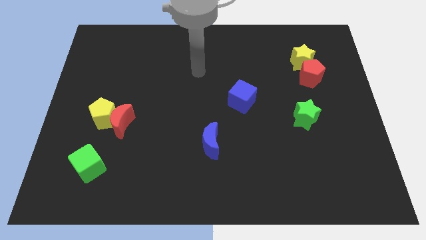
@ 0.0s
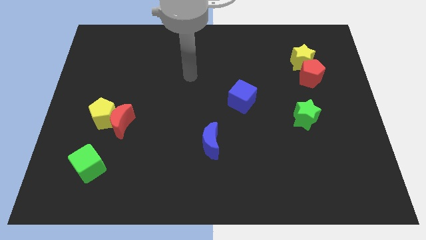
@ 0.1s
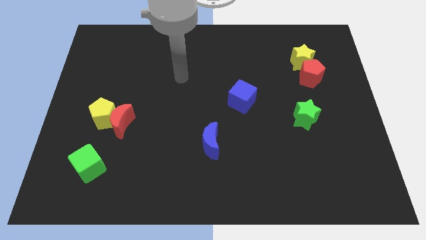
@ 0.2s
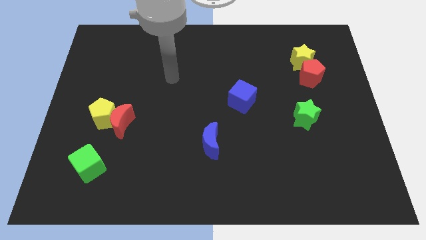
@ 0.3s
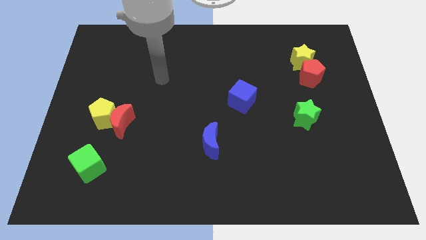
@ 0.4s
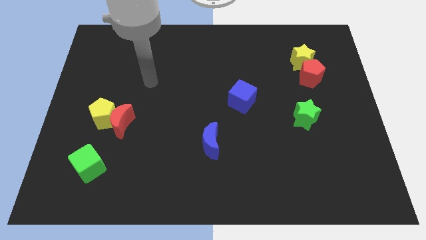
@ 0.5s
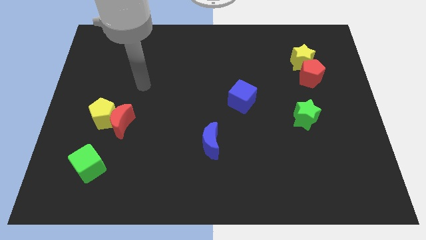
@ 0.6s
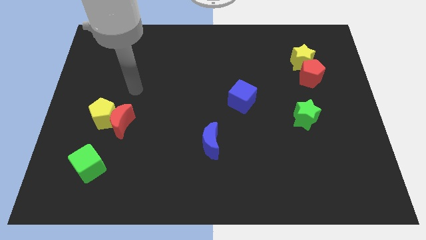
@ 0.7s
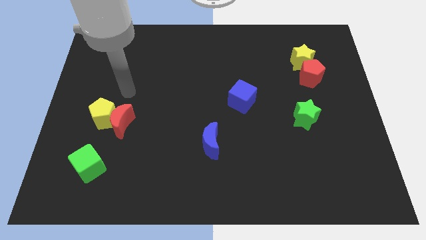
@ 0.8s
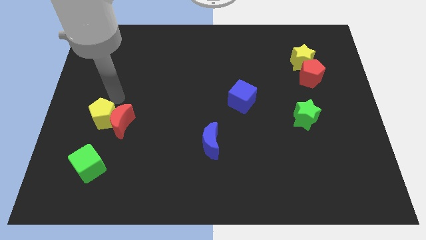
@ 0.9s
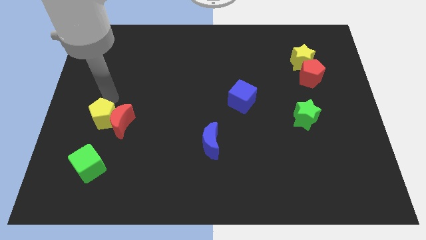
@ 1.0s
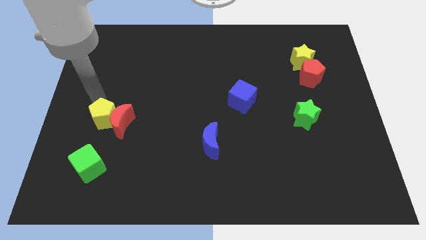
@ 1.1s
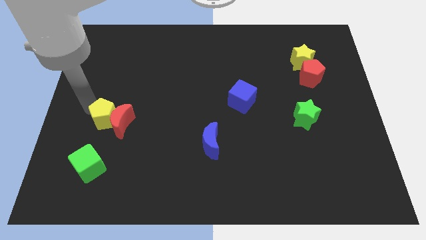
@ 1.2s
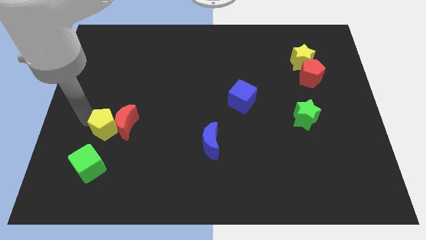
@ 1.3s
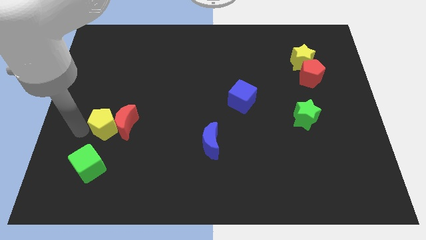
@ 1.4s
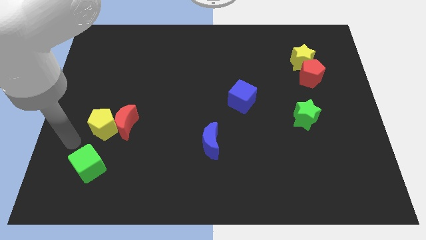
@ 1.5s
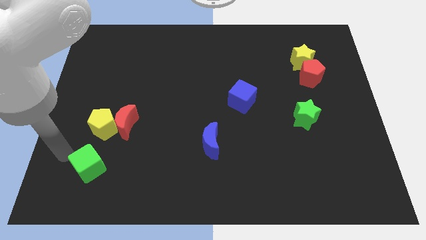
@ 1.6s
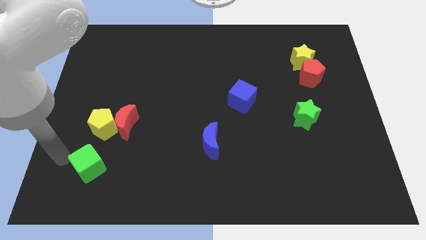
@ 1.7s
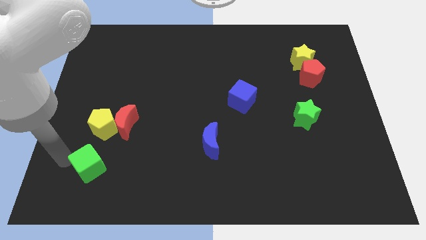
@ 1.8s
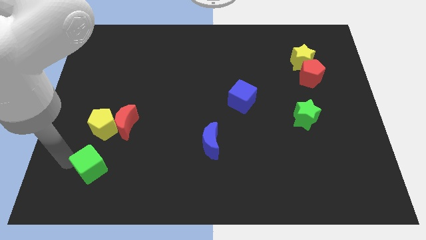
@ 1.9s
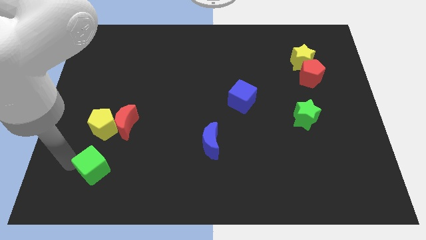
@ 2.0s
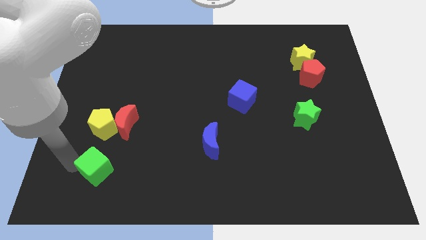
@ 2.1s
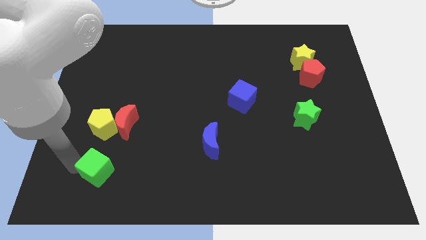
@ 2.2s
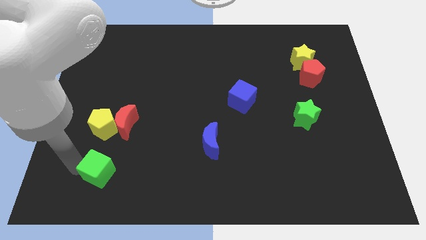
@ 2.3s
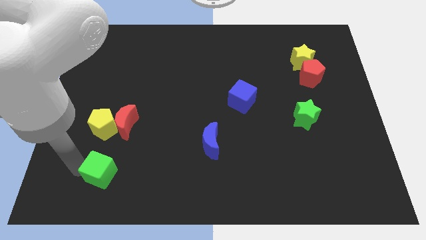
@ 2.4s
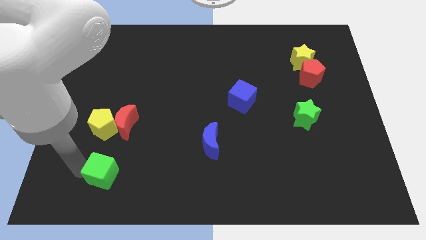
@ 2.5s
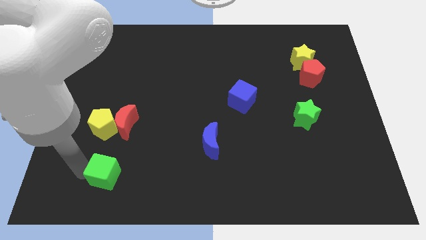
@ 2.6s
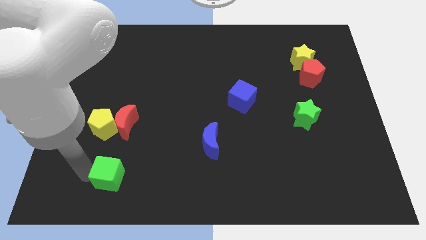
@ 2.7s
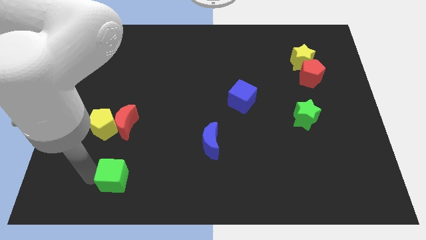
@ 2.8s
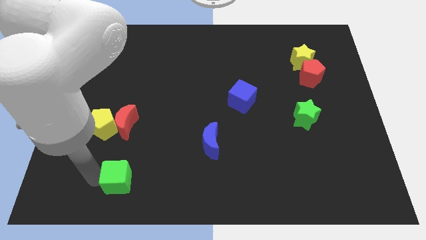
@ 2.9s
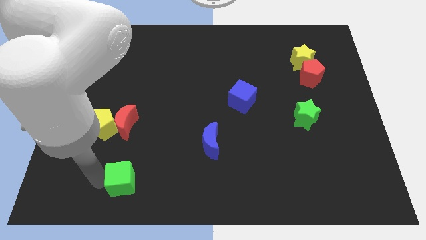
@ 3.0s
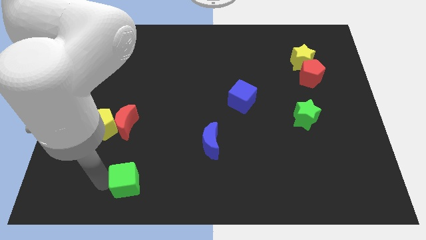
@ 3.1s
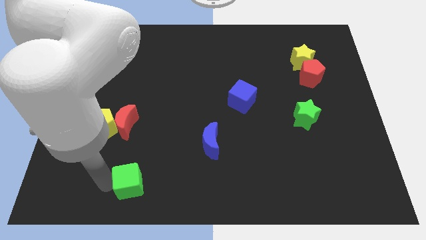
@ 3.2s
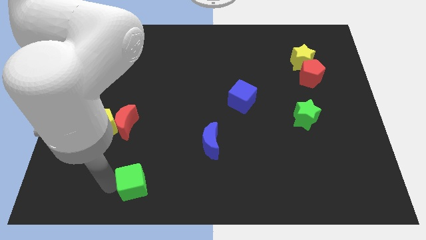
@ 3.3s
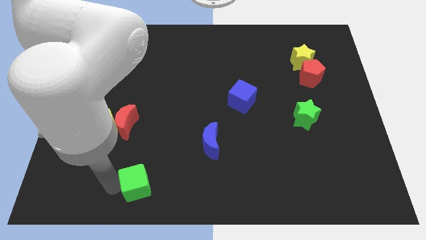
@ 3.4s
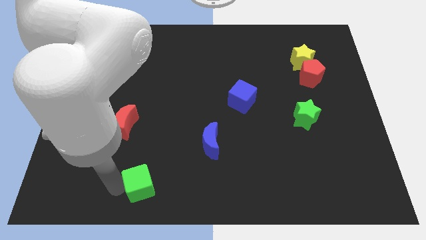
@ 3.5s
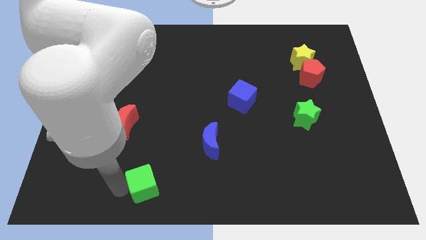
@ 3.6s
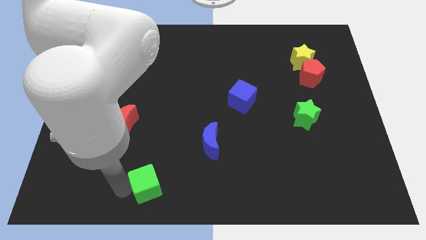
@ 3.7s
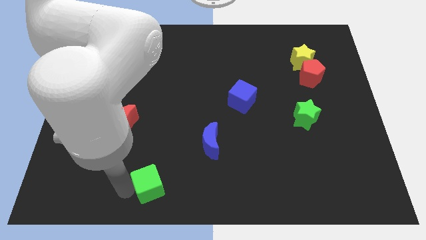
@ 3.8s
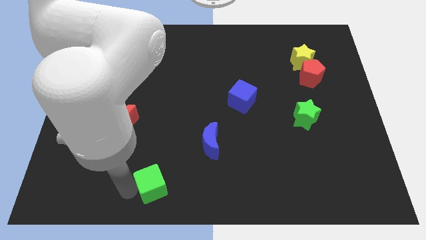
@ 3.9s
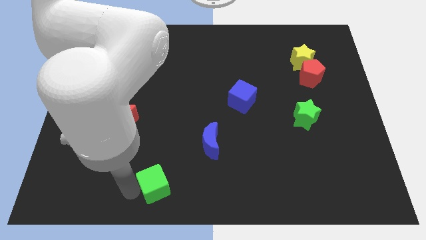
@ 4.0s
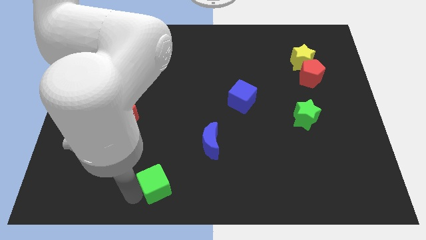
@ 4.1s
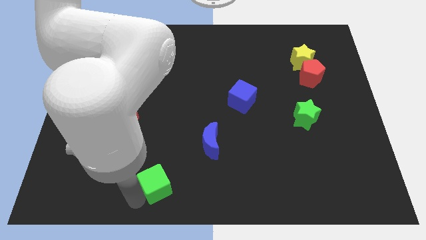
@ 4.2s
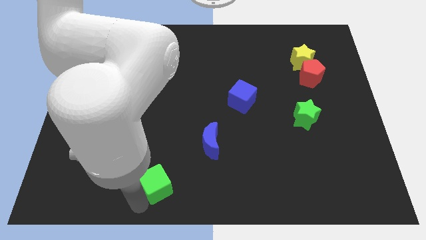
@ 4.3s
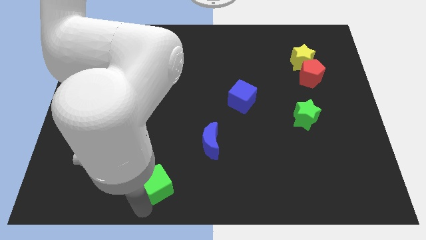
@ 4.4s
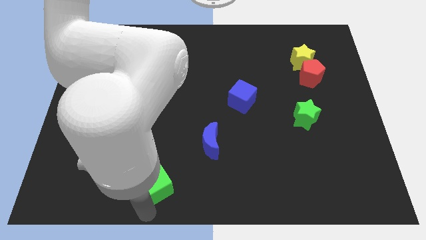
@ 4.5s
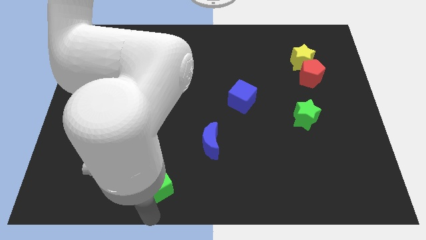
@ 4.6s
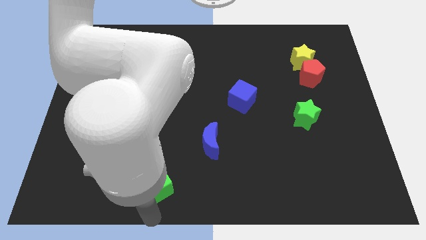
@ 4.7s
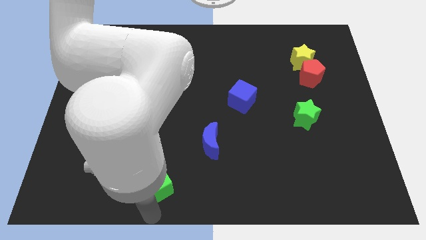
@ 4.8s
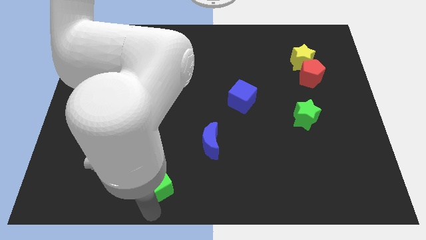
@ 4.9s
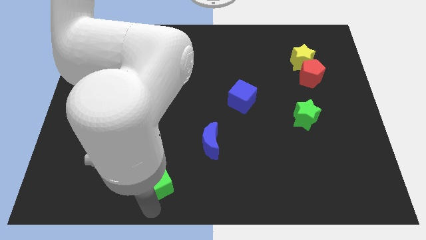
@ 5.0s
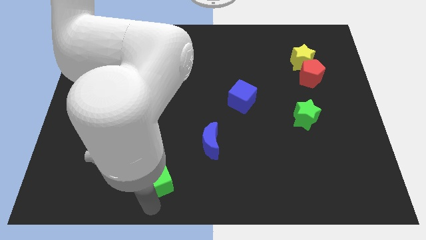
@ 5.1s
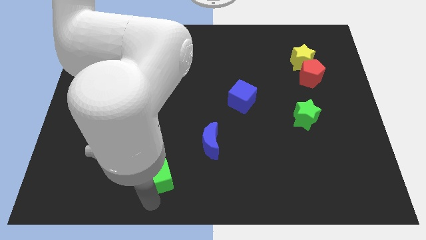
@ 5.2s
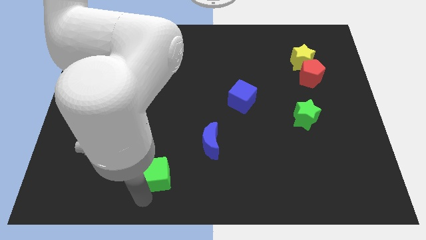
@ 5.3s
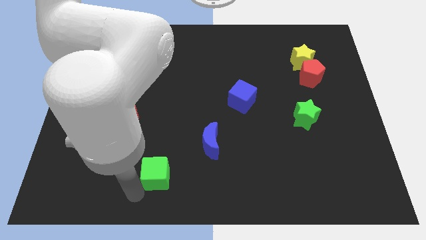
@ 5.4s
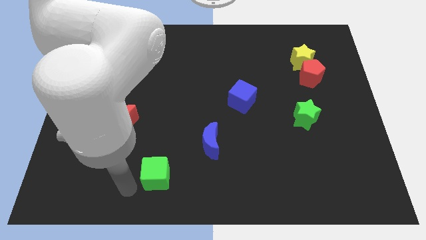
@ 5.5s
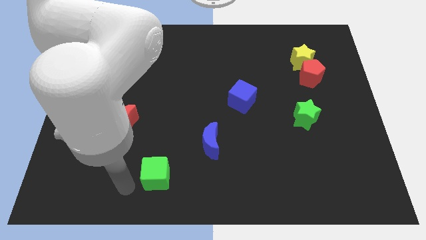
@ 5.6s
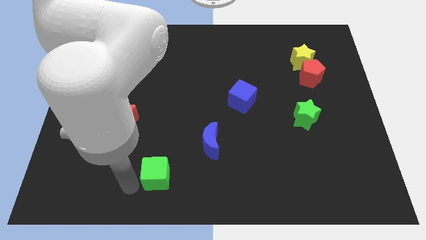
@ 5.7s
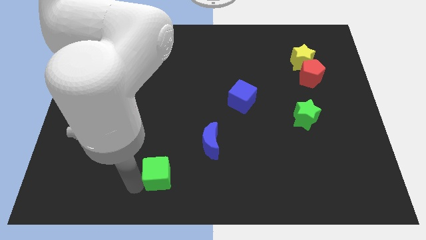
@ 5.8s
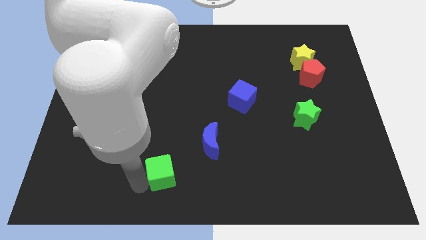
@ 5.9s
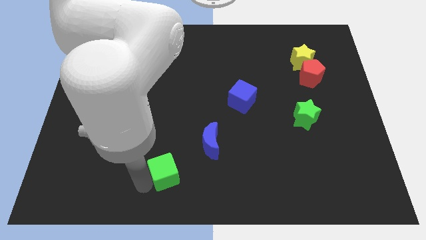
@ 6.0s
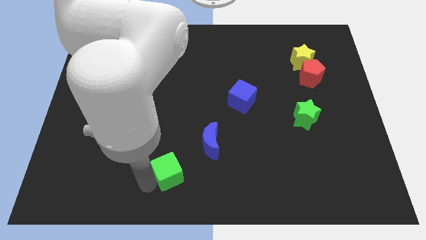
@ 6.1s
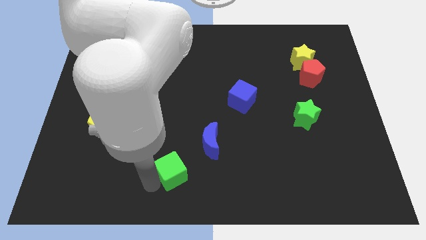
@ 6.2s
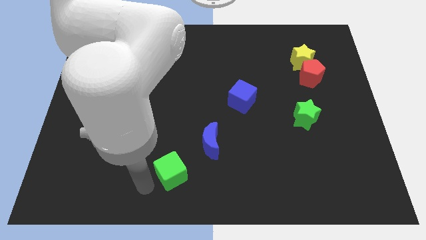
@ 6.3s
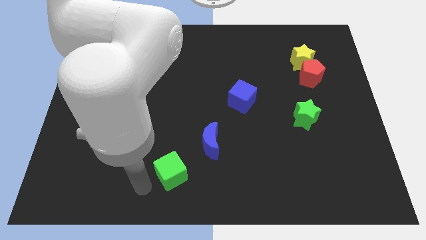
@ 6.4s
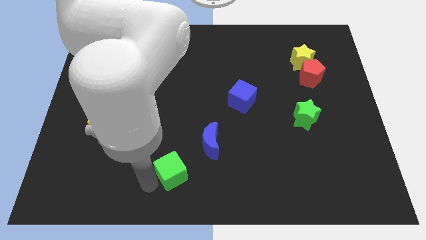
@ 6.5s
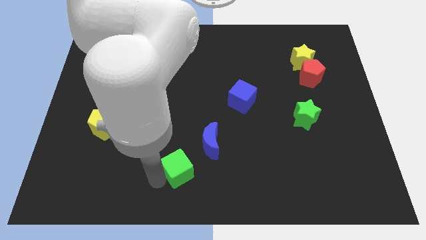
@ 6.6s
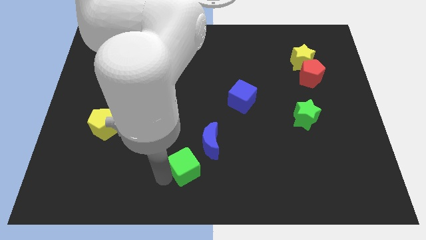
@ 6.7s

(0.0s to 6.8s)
move the green cube to the right

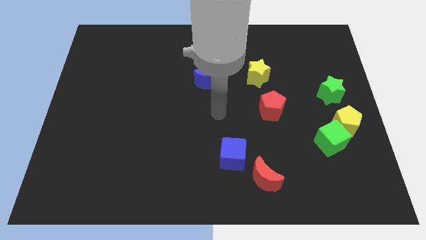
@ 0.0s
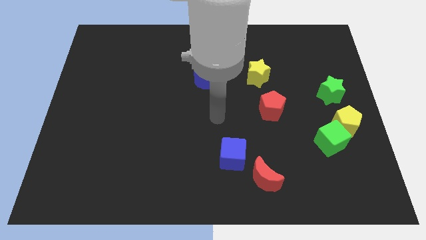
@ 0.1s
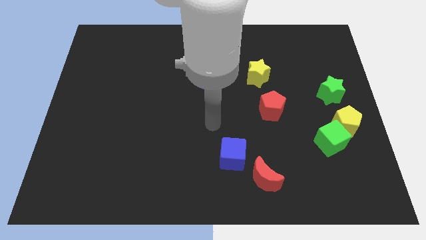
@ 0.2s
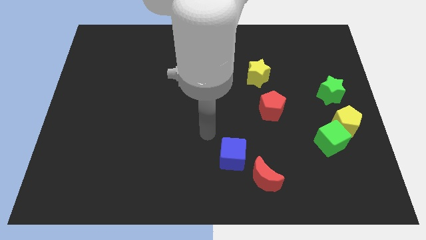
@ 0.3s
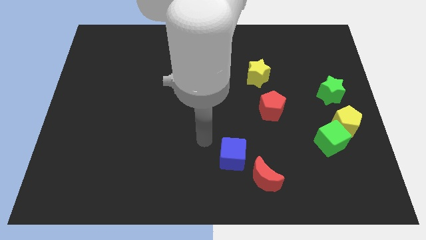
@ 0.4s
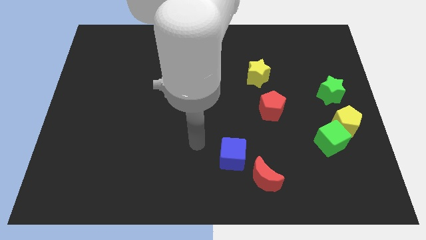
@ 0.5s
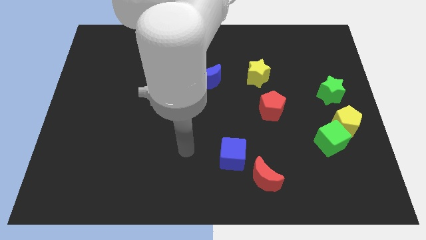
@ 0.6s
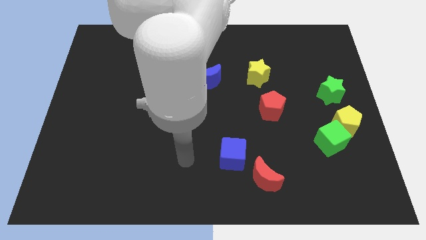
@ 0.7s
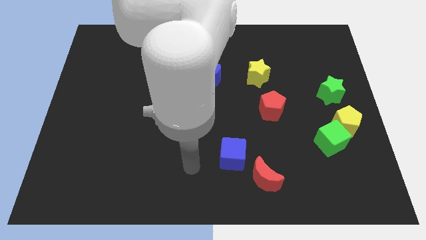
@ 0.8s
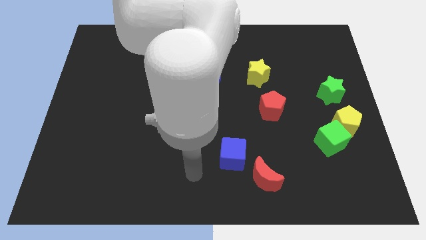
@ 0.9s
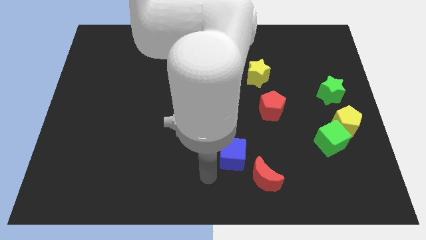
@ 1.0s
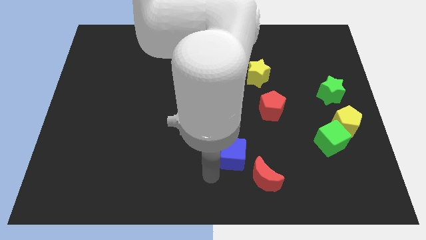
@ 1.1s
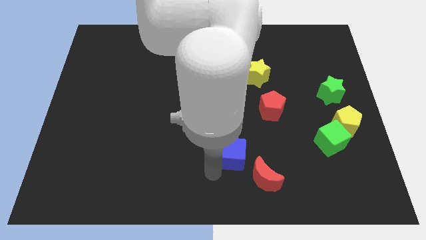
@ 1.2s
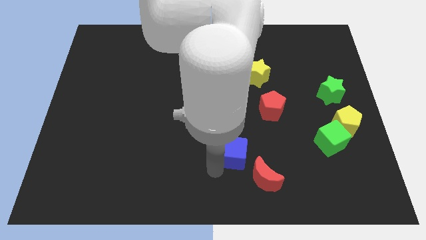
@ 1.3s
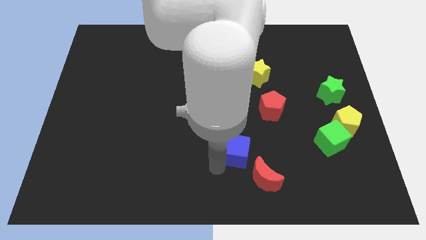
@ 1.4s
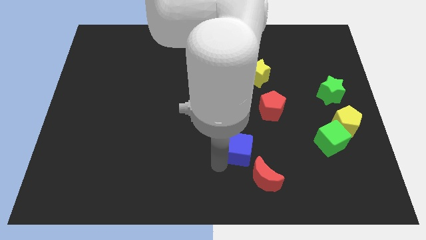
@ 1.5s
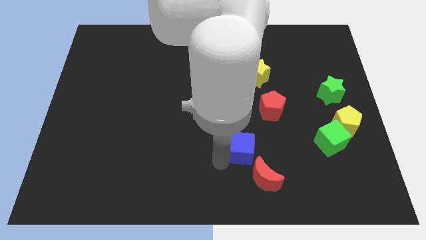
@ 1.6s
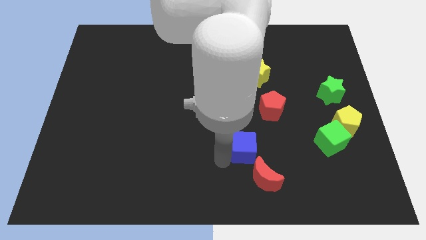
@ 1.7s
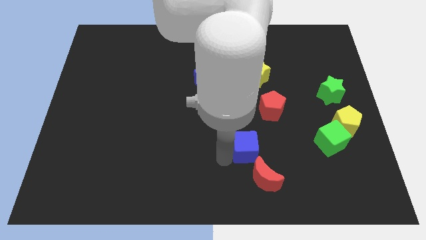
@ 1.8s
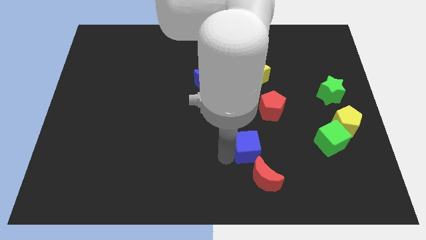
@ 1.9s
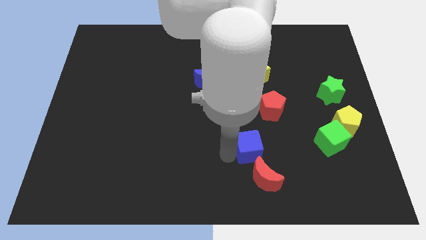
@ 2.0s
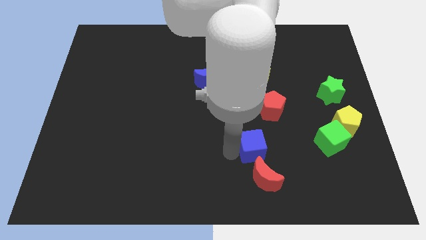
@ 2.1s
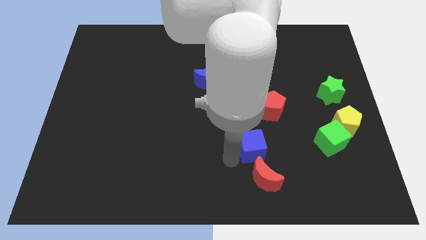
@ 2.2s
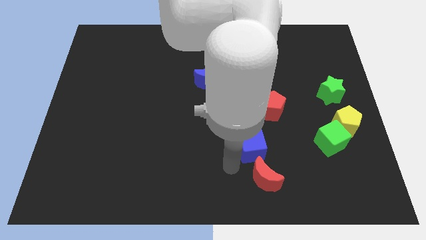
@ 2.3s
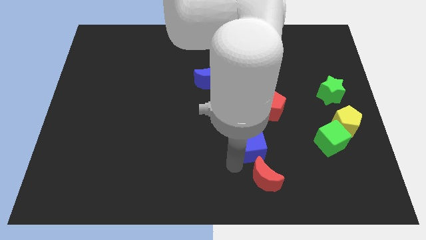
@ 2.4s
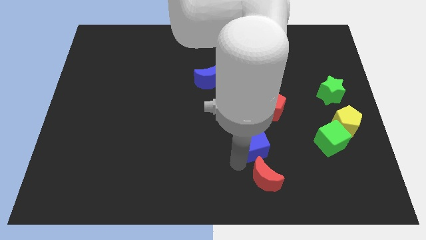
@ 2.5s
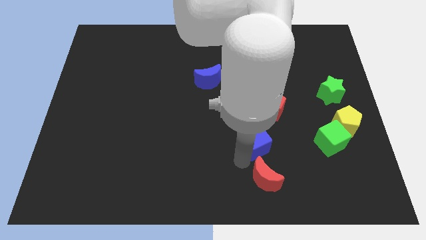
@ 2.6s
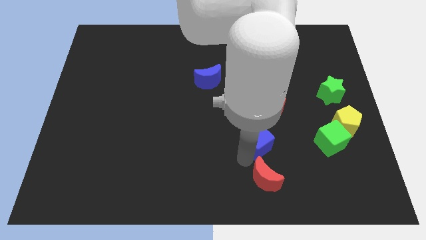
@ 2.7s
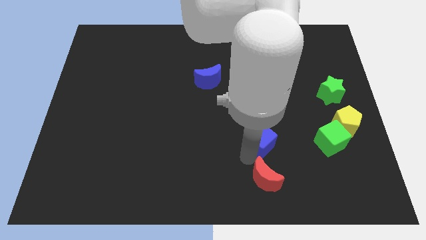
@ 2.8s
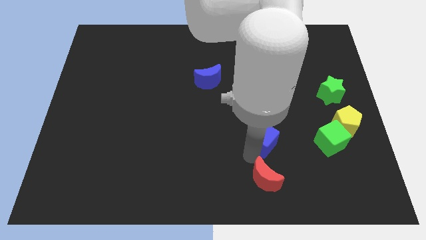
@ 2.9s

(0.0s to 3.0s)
slide the blue cube upwards and then right somewhat
